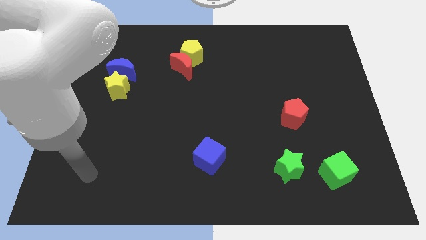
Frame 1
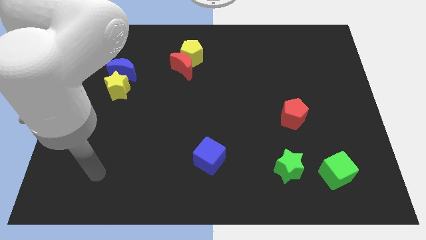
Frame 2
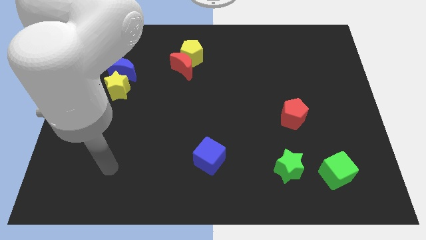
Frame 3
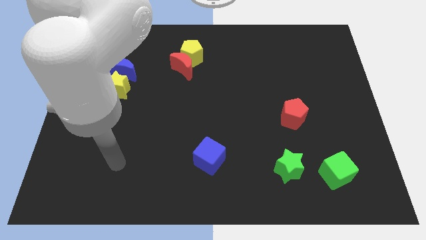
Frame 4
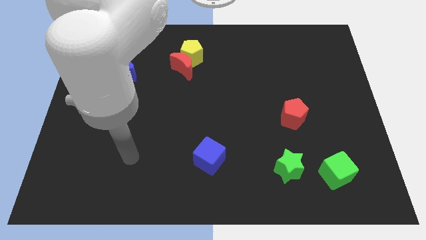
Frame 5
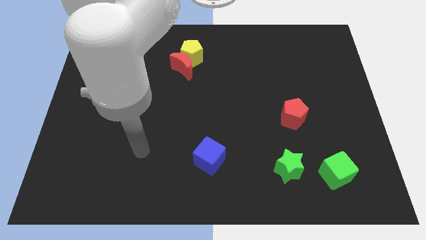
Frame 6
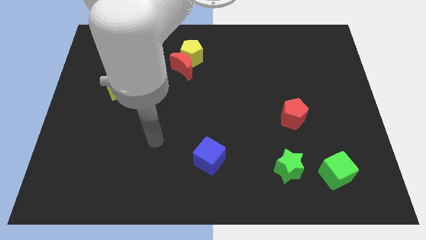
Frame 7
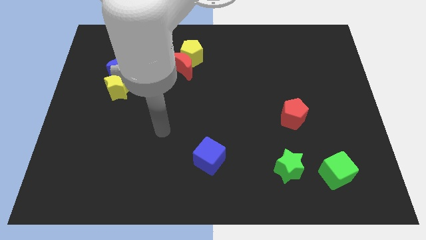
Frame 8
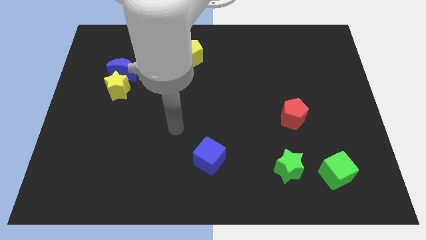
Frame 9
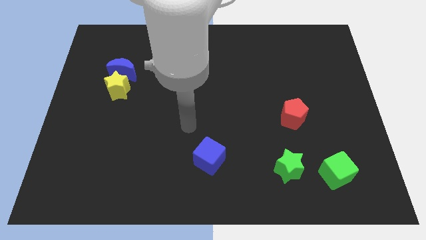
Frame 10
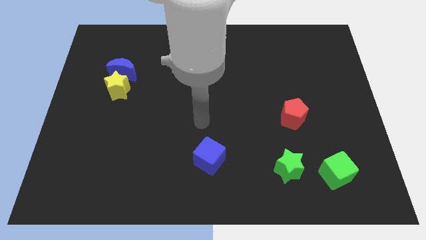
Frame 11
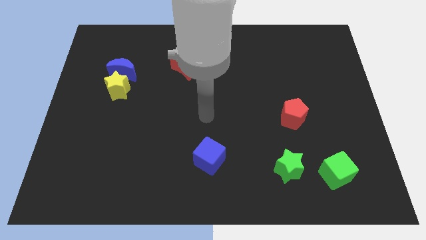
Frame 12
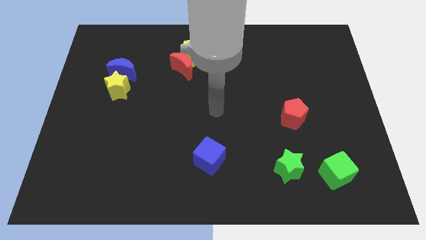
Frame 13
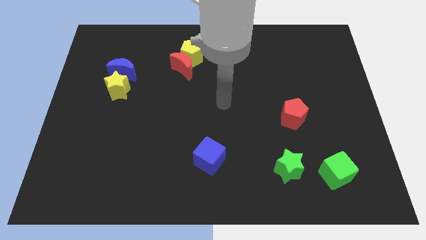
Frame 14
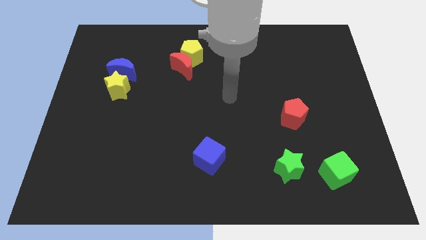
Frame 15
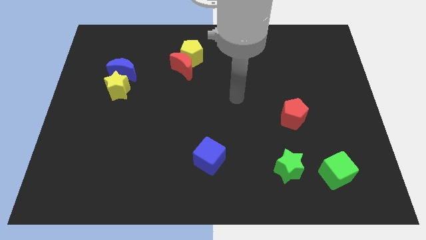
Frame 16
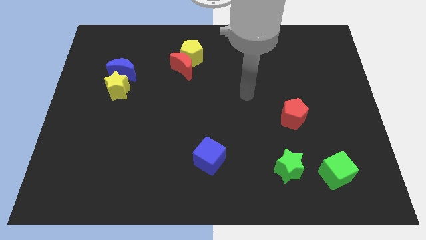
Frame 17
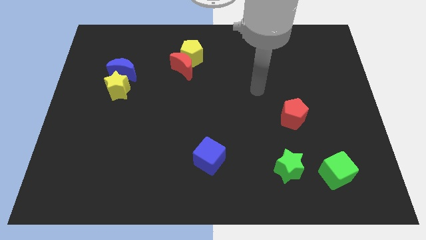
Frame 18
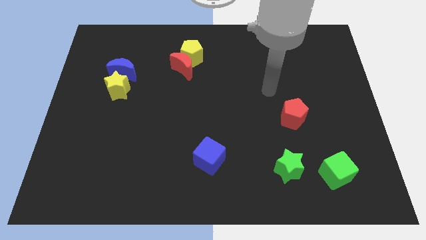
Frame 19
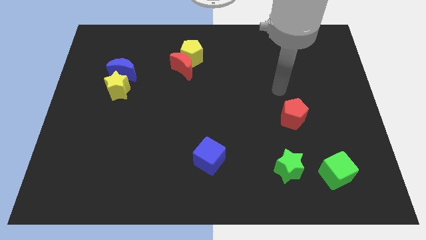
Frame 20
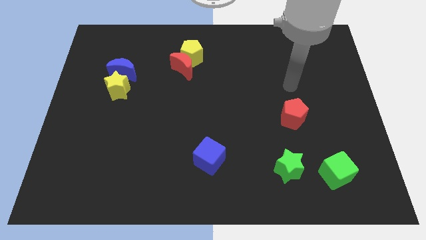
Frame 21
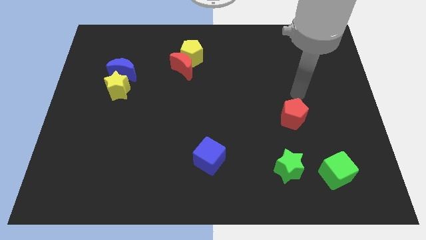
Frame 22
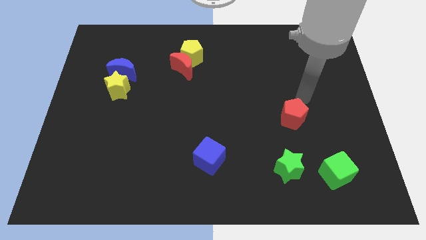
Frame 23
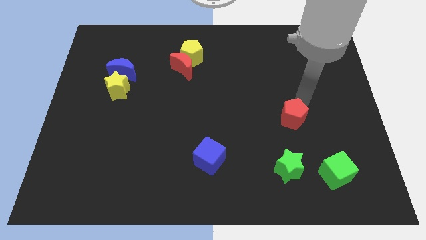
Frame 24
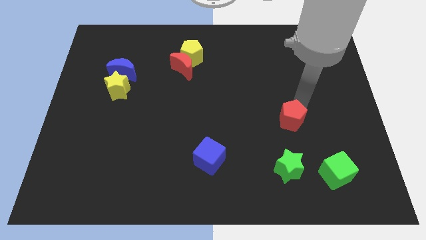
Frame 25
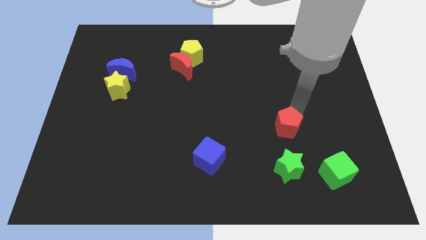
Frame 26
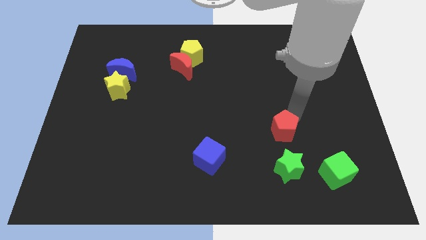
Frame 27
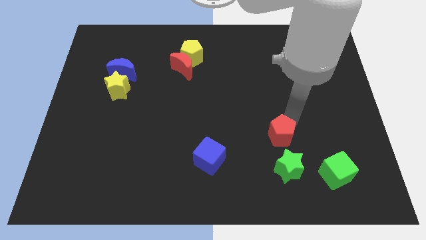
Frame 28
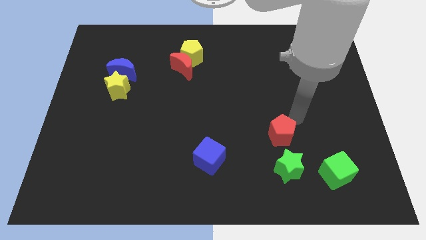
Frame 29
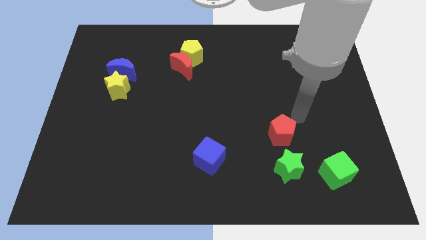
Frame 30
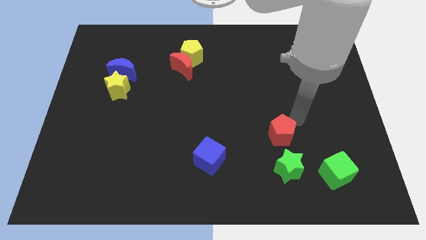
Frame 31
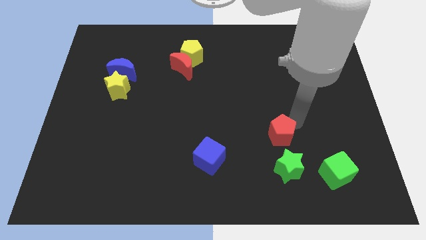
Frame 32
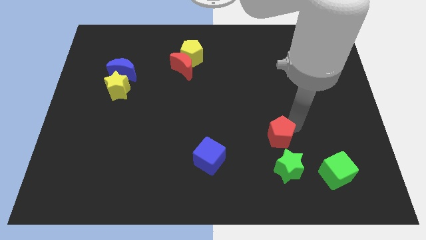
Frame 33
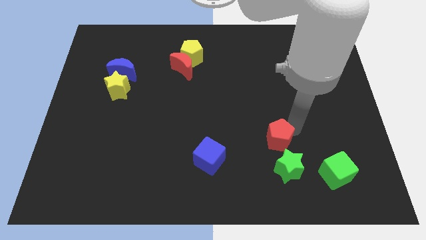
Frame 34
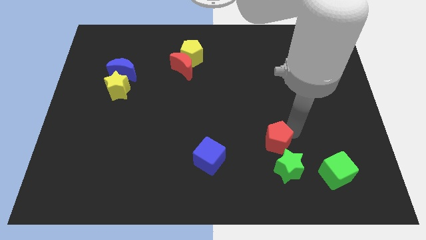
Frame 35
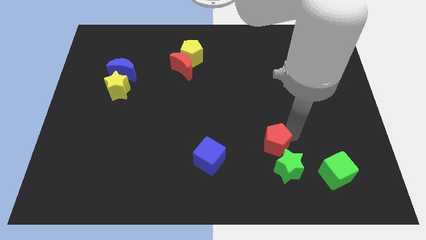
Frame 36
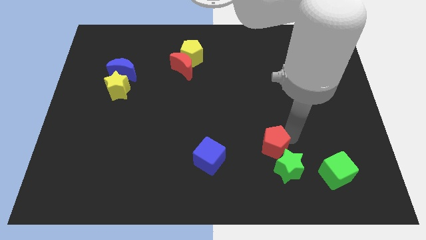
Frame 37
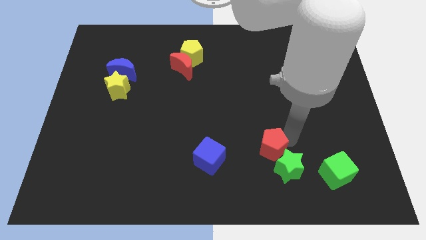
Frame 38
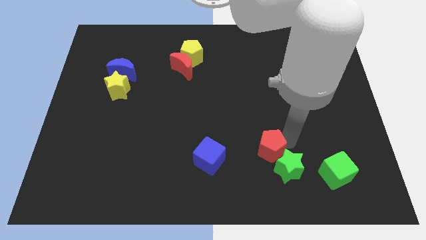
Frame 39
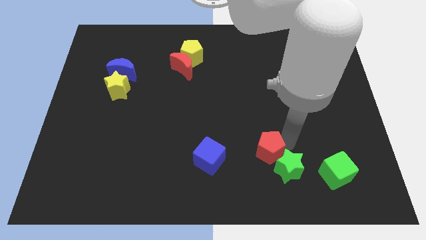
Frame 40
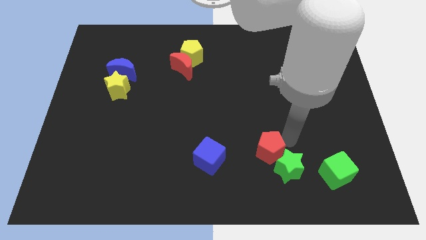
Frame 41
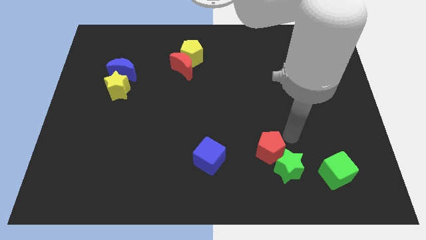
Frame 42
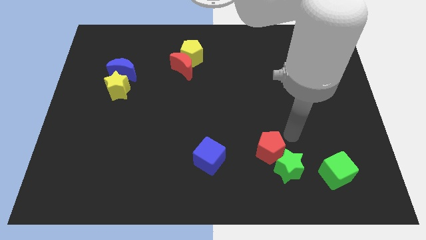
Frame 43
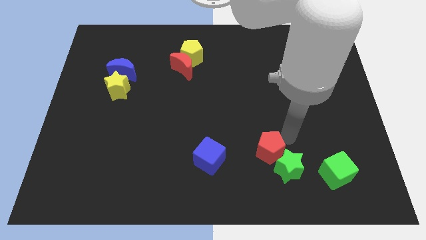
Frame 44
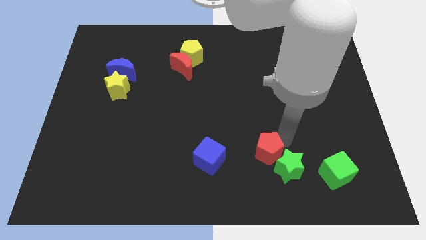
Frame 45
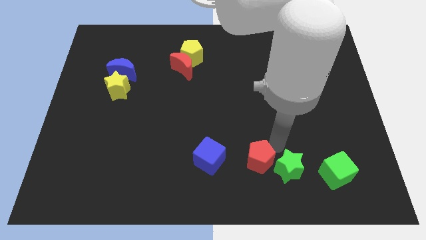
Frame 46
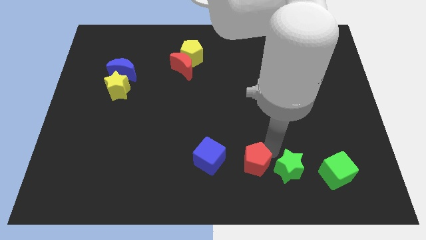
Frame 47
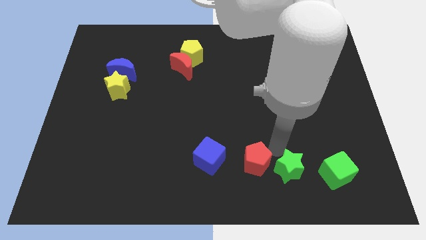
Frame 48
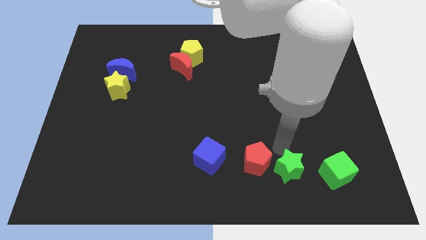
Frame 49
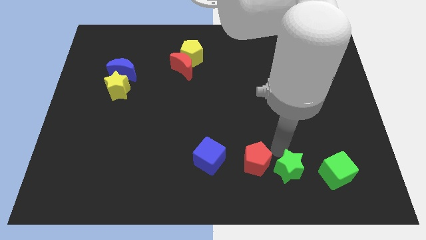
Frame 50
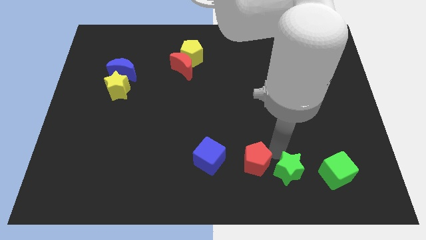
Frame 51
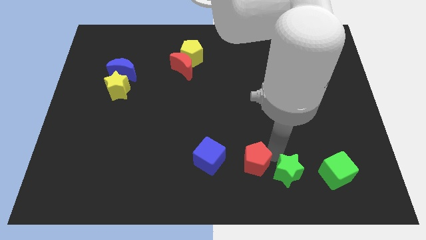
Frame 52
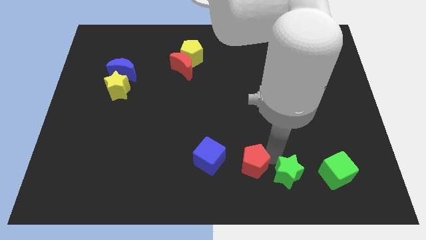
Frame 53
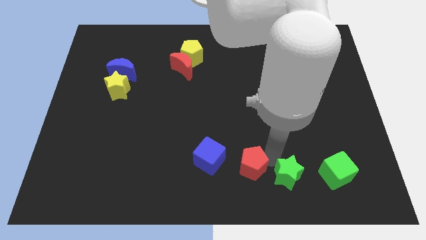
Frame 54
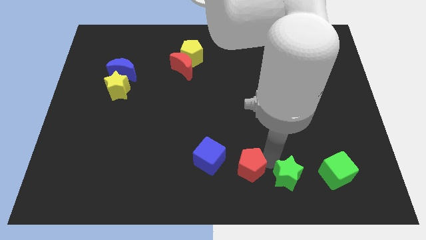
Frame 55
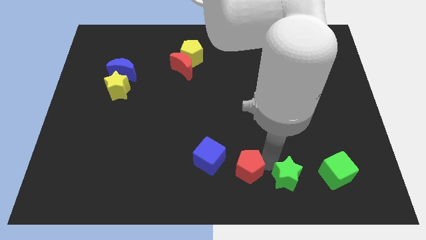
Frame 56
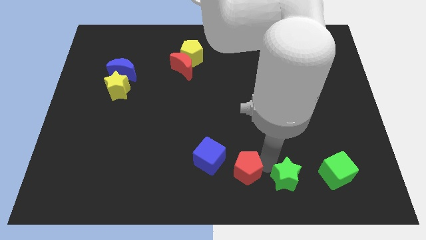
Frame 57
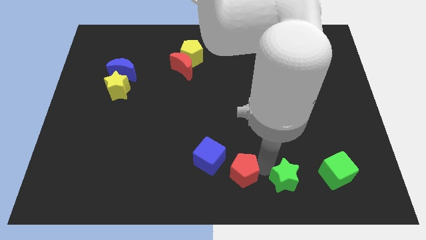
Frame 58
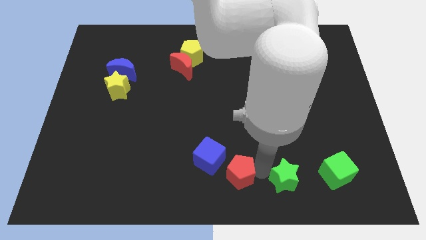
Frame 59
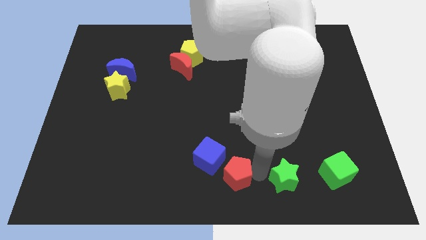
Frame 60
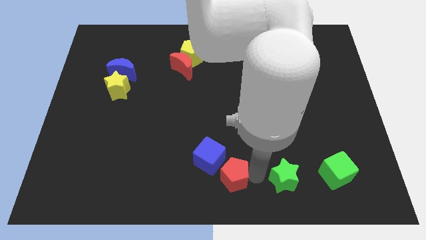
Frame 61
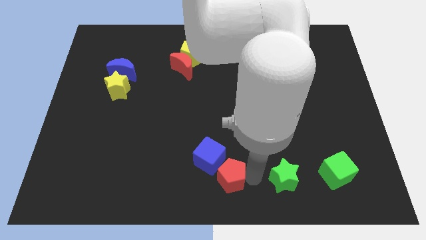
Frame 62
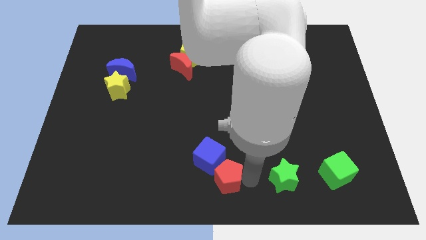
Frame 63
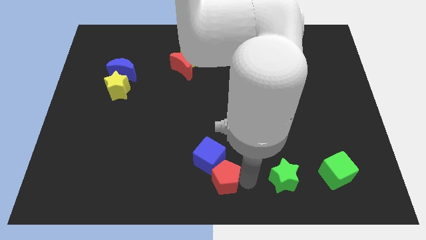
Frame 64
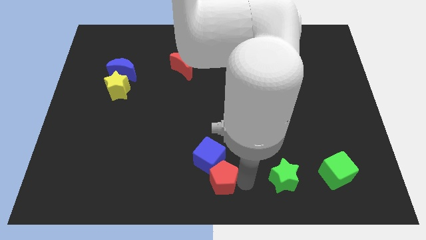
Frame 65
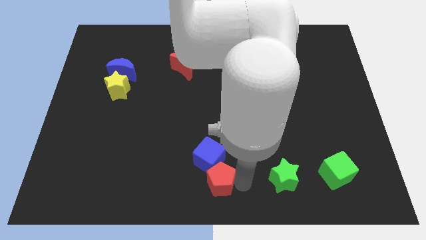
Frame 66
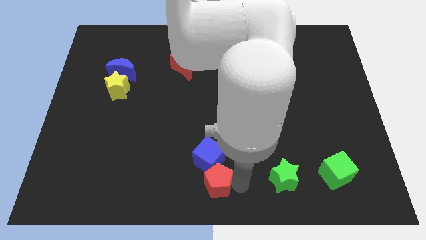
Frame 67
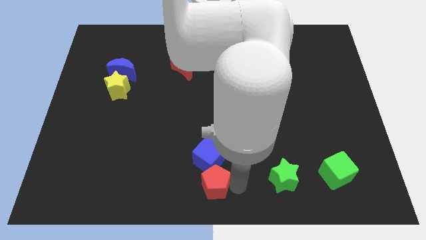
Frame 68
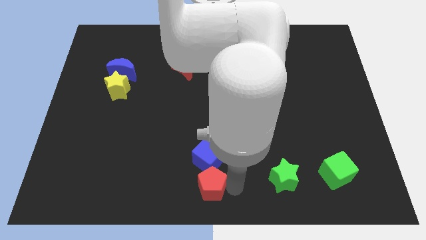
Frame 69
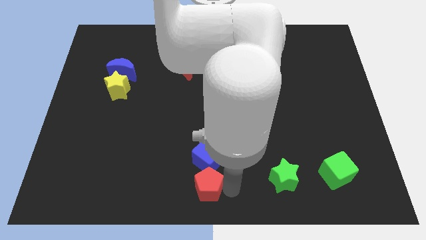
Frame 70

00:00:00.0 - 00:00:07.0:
slide the red pentagon to the bottom left side of the blue cube

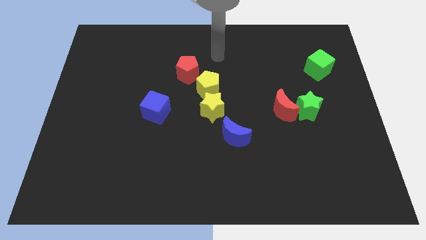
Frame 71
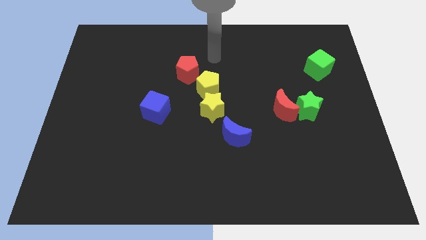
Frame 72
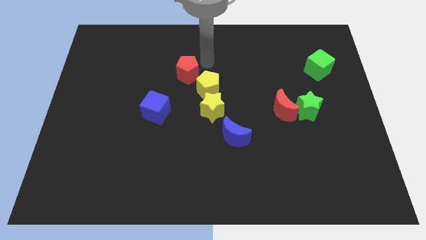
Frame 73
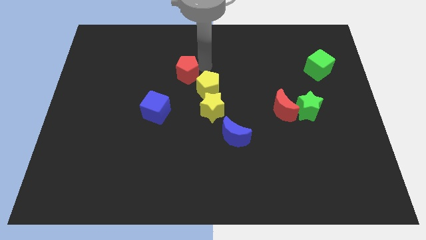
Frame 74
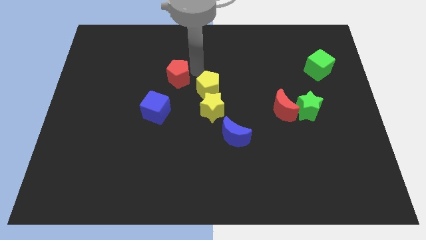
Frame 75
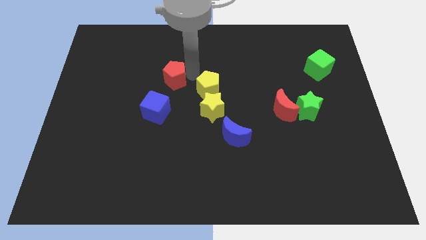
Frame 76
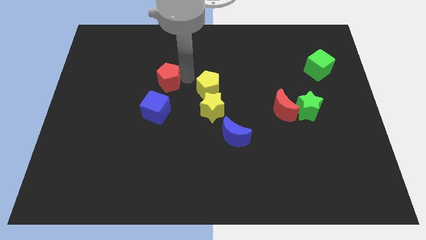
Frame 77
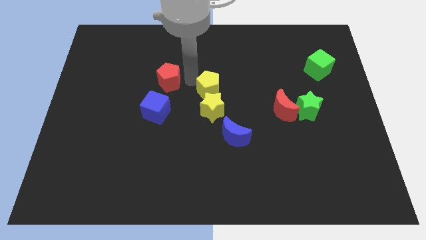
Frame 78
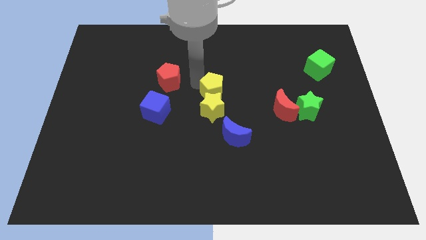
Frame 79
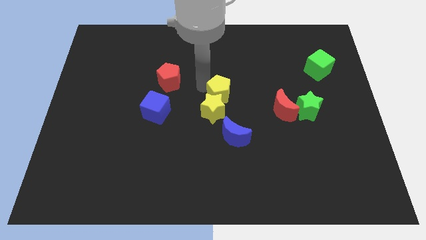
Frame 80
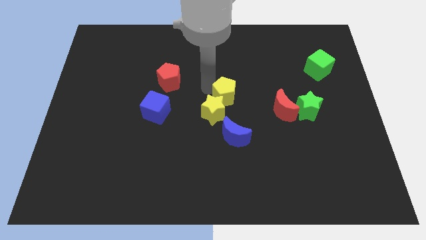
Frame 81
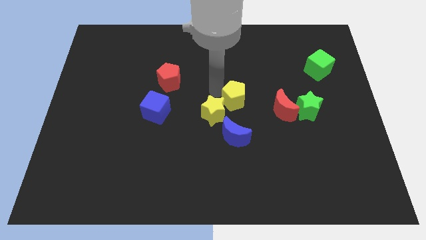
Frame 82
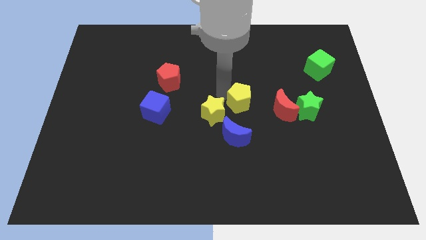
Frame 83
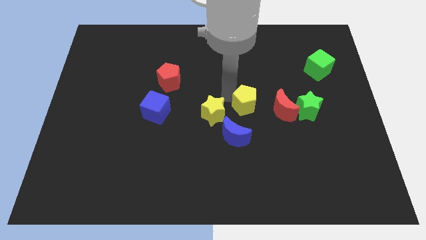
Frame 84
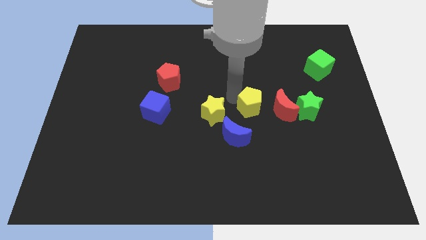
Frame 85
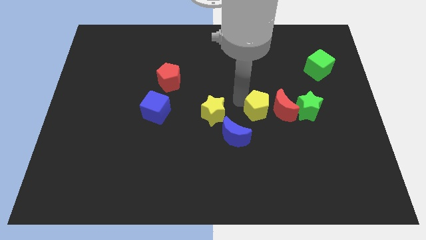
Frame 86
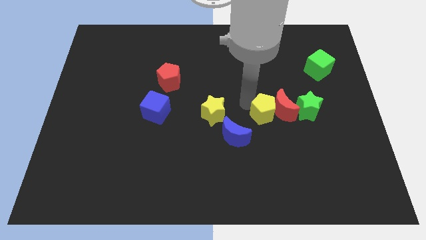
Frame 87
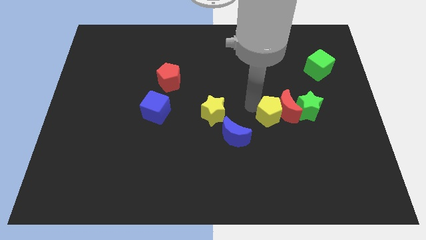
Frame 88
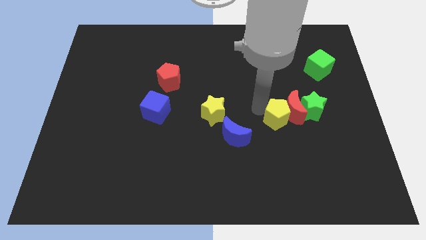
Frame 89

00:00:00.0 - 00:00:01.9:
slide the yellow pentagon to the bottom left of the green star
